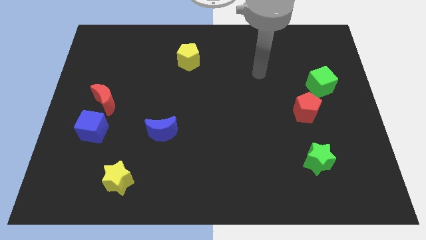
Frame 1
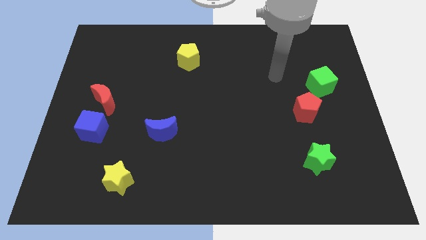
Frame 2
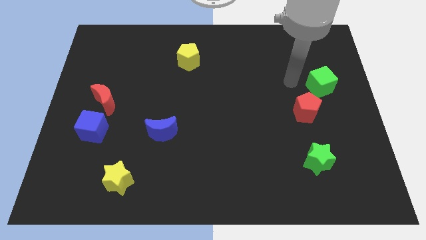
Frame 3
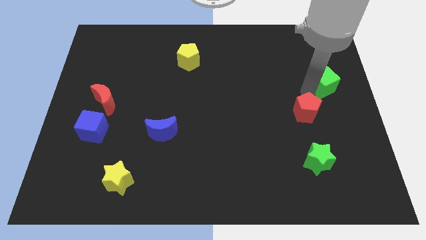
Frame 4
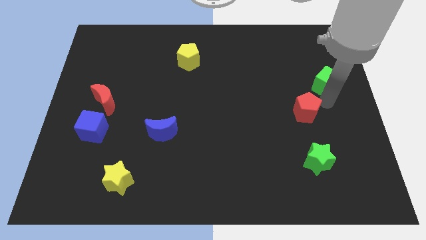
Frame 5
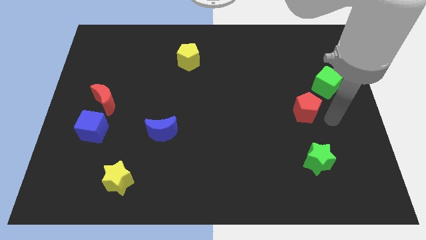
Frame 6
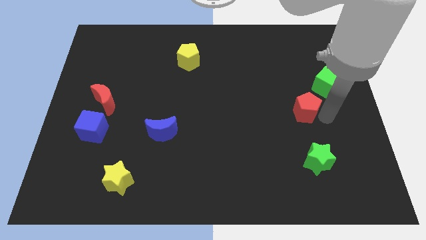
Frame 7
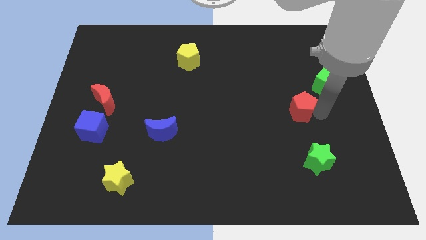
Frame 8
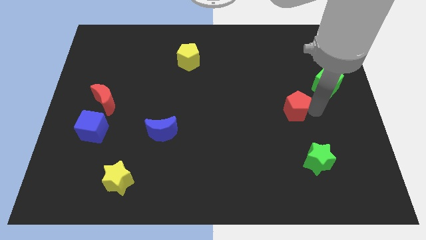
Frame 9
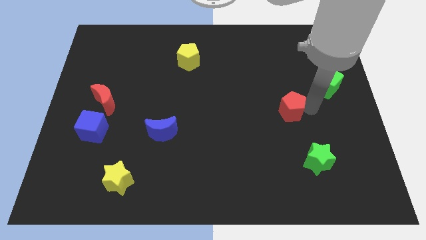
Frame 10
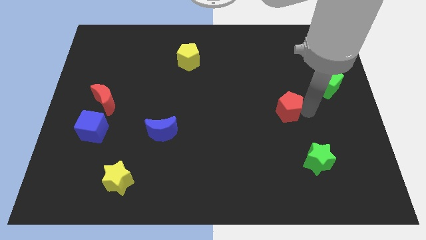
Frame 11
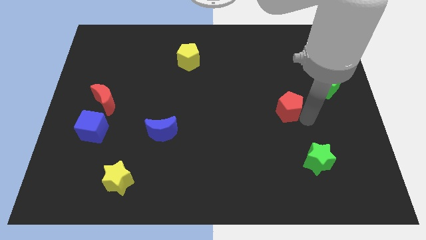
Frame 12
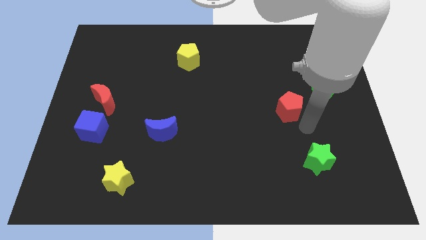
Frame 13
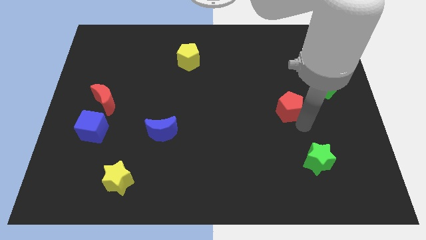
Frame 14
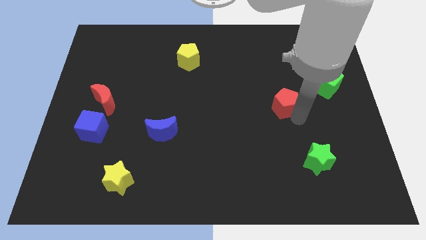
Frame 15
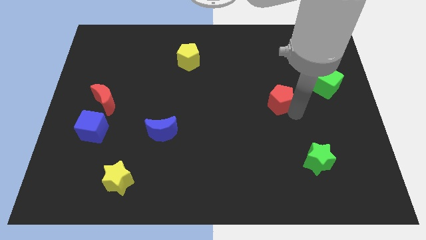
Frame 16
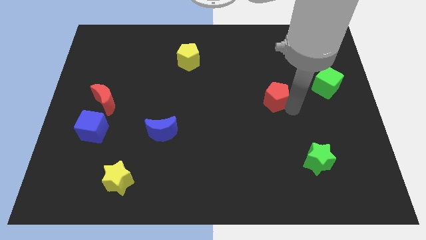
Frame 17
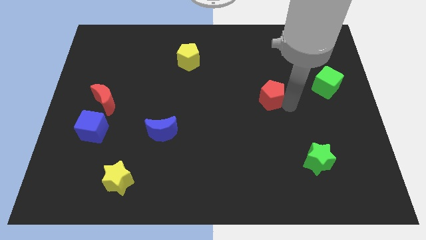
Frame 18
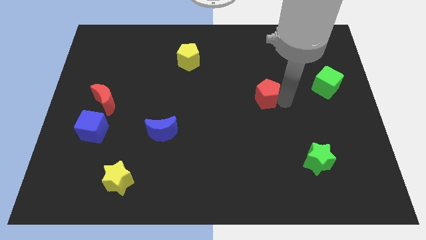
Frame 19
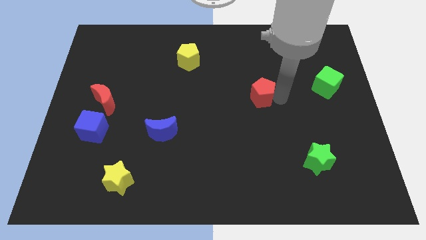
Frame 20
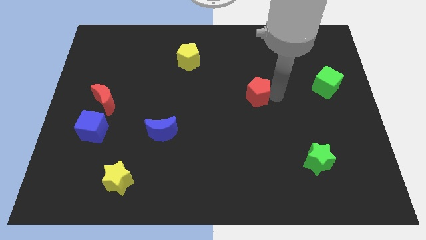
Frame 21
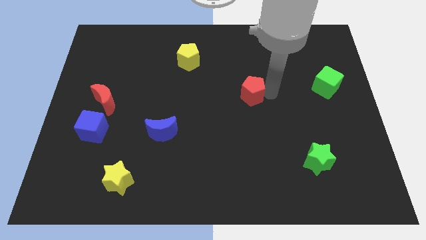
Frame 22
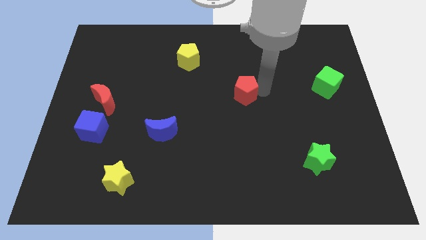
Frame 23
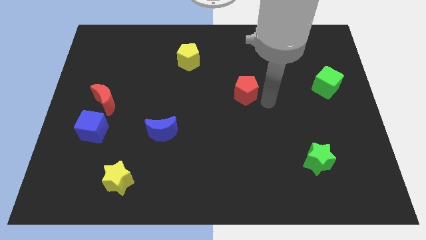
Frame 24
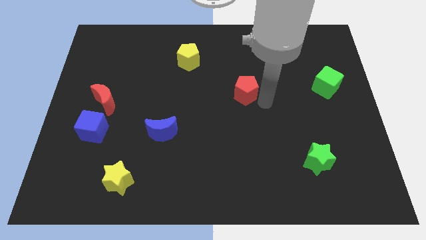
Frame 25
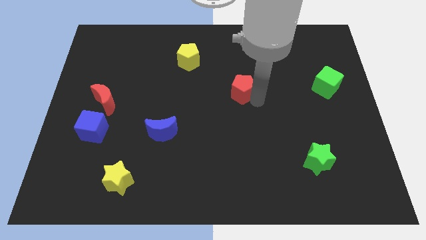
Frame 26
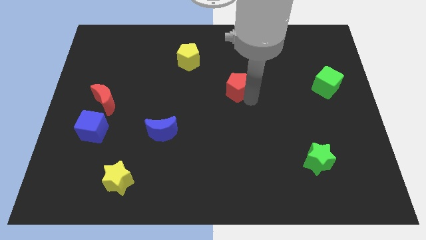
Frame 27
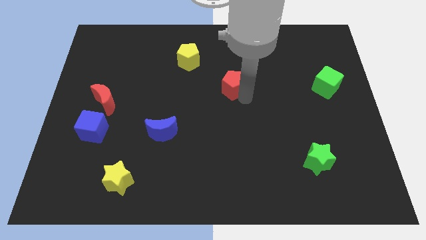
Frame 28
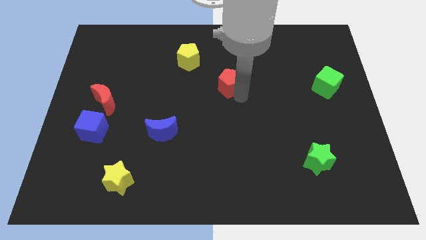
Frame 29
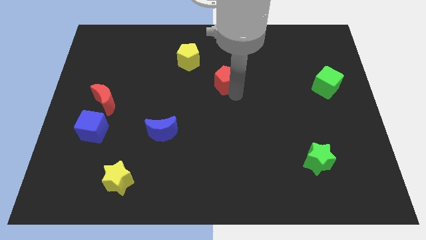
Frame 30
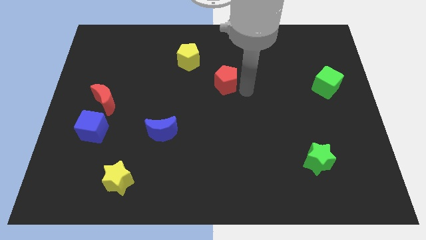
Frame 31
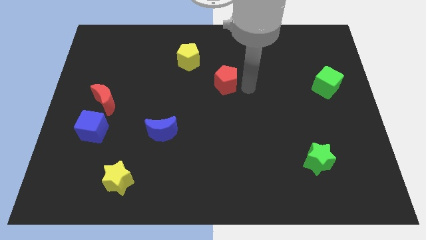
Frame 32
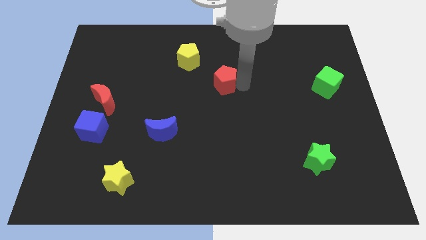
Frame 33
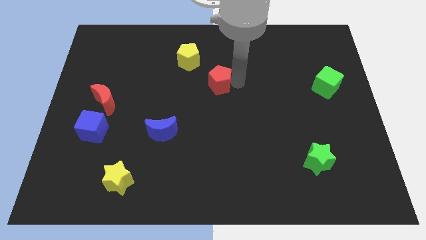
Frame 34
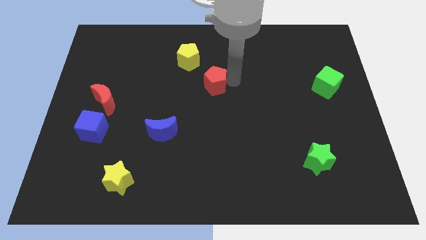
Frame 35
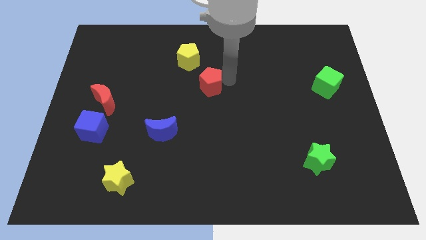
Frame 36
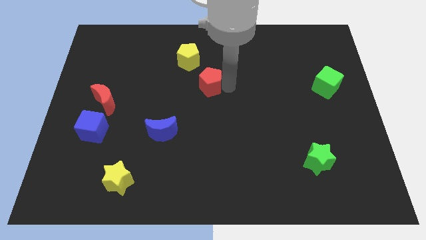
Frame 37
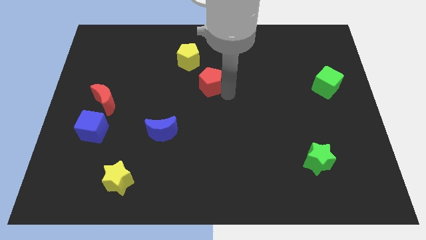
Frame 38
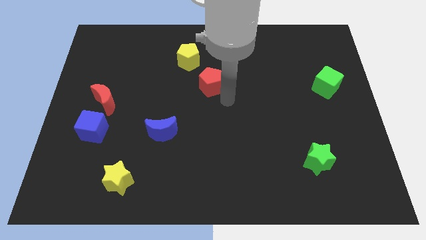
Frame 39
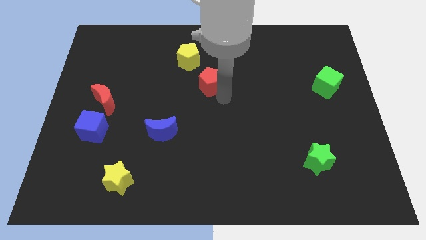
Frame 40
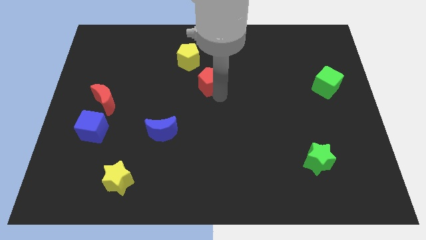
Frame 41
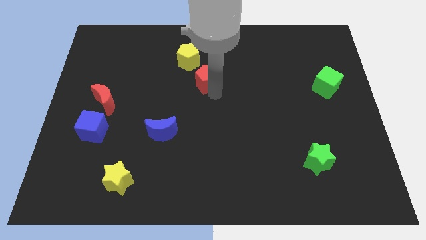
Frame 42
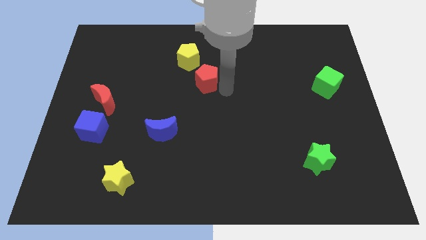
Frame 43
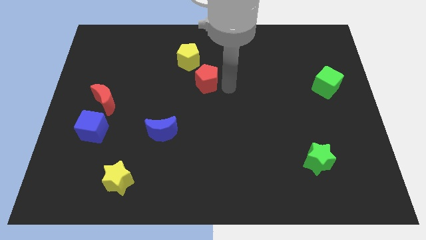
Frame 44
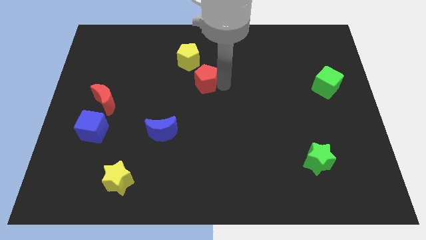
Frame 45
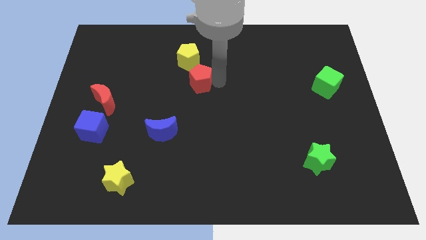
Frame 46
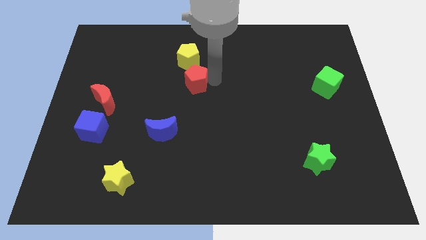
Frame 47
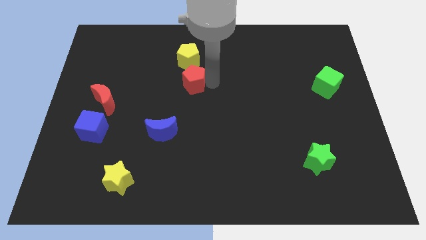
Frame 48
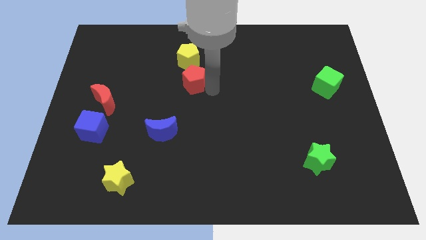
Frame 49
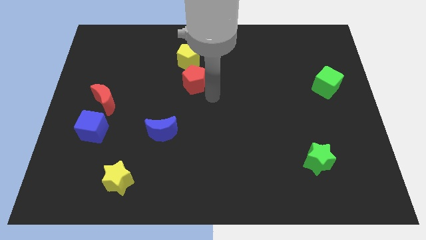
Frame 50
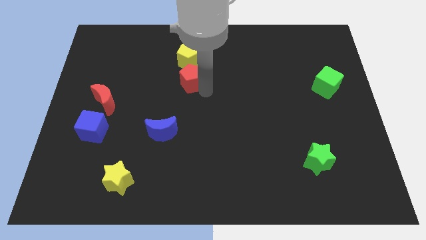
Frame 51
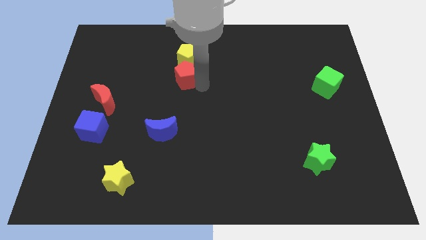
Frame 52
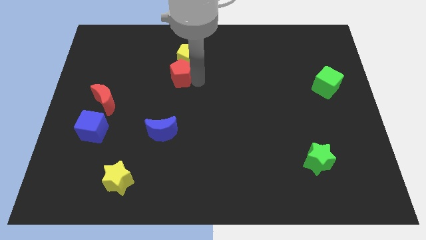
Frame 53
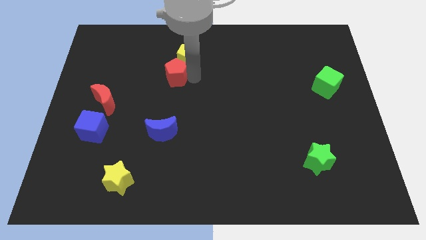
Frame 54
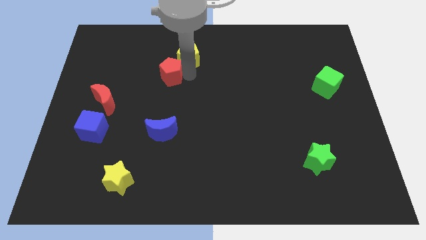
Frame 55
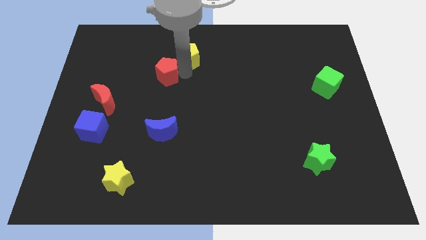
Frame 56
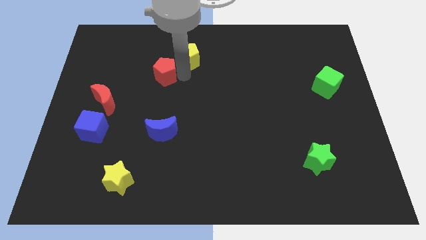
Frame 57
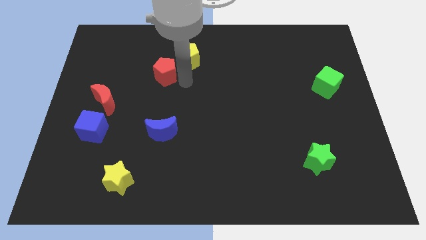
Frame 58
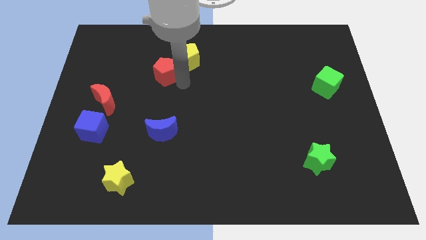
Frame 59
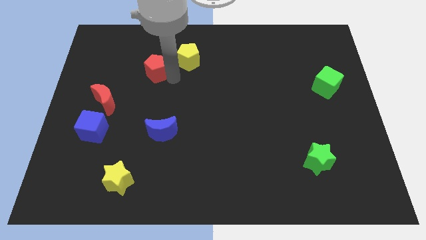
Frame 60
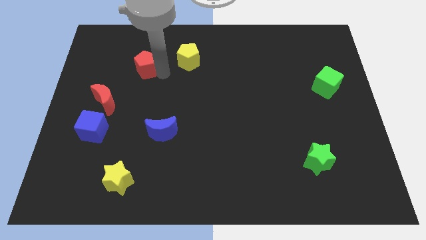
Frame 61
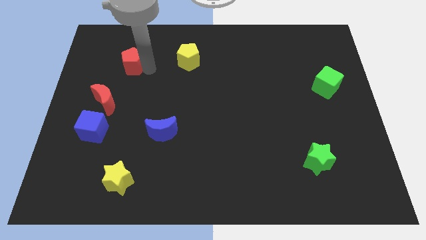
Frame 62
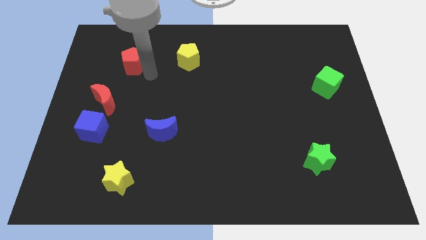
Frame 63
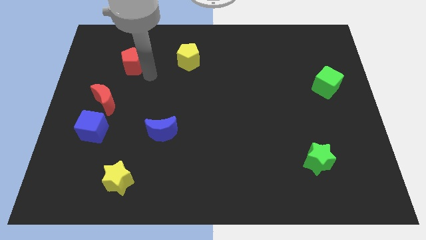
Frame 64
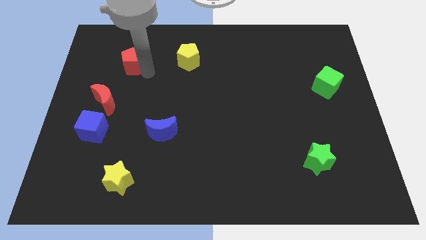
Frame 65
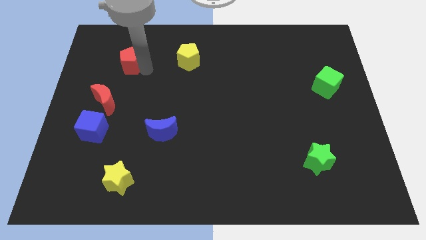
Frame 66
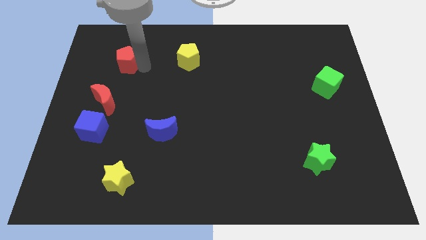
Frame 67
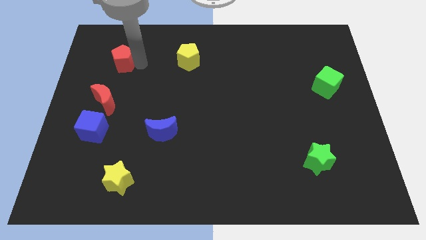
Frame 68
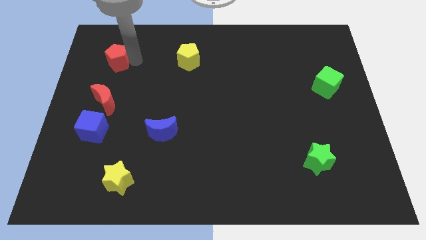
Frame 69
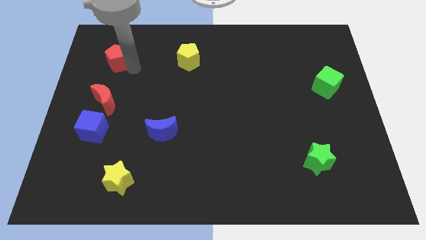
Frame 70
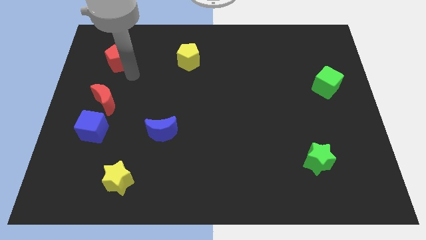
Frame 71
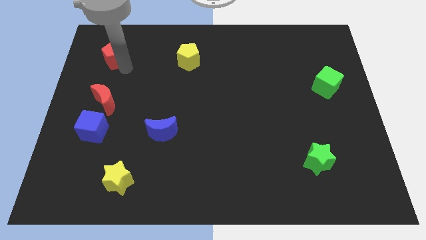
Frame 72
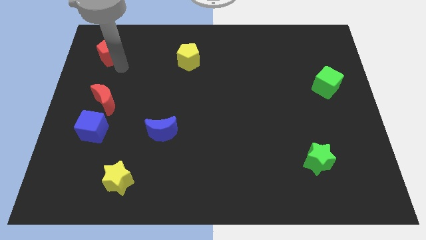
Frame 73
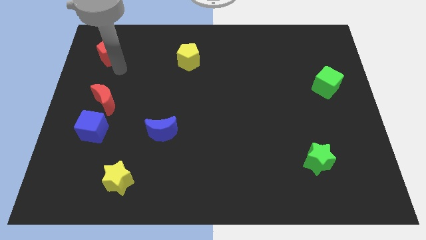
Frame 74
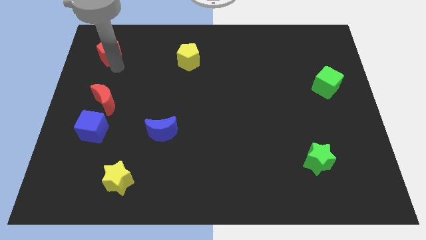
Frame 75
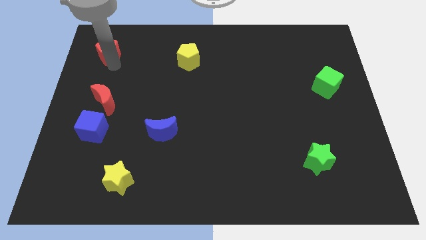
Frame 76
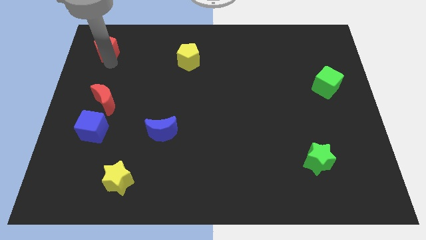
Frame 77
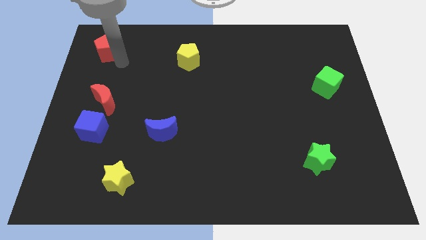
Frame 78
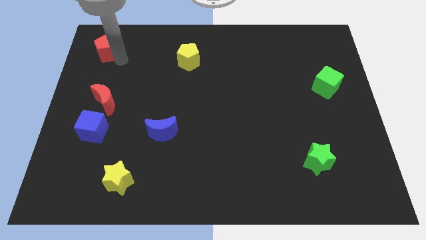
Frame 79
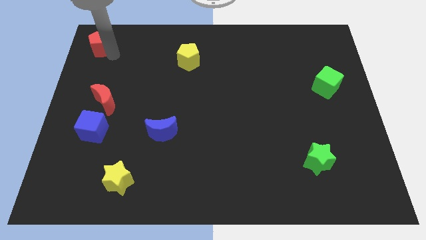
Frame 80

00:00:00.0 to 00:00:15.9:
move the red pentagon to the upper left corner
